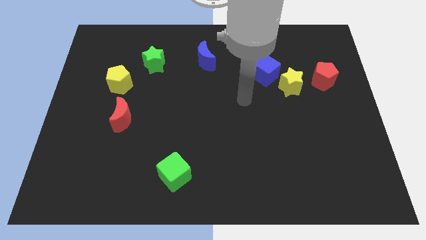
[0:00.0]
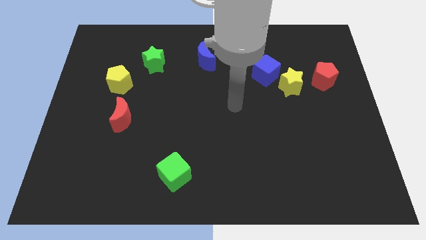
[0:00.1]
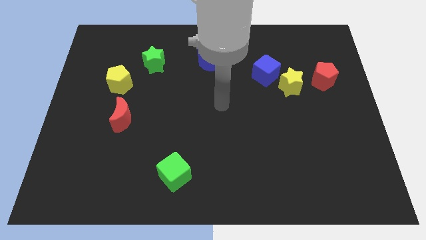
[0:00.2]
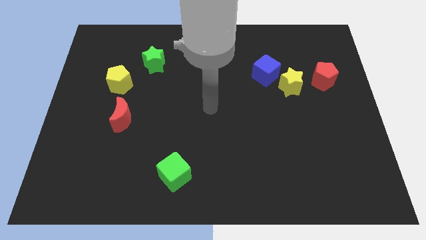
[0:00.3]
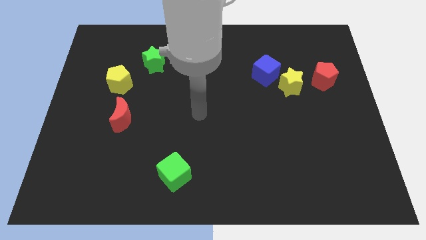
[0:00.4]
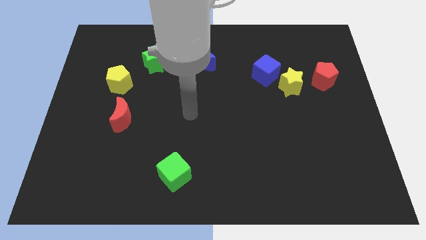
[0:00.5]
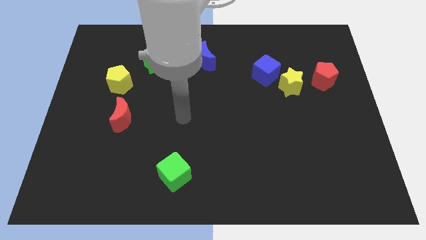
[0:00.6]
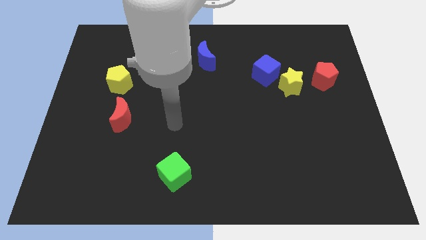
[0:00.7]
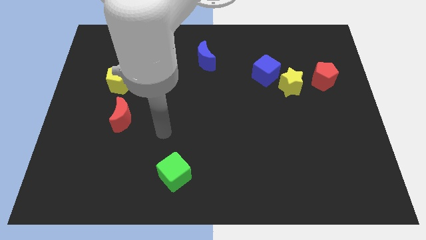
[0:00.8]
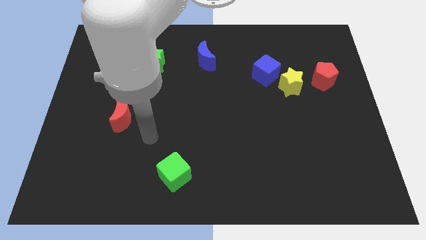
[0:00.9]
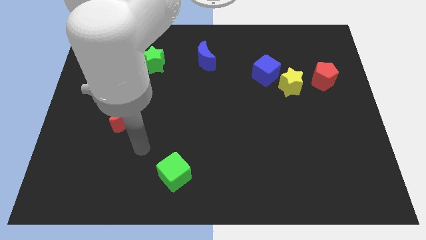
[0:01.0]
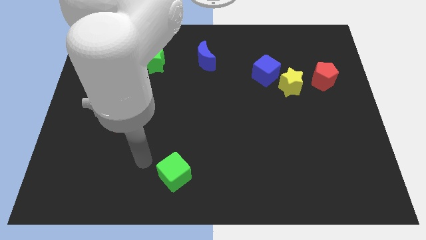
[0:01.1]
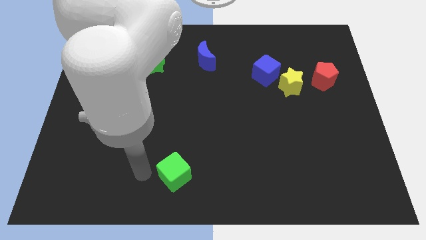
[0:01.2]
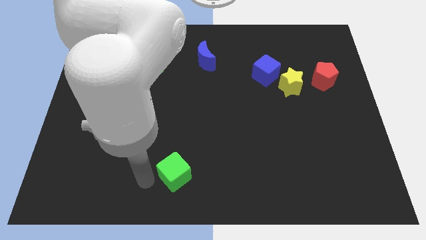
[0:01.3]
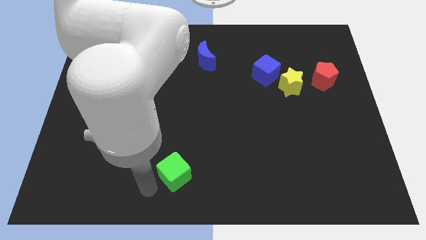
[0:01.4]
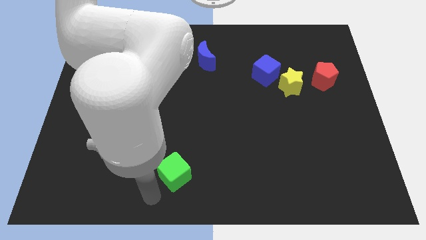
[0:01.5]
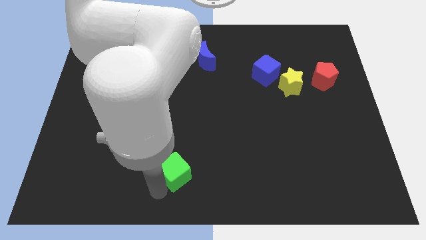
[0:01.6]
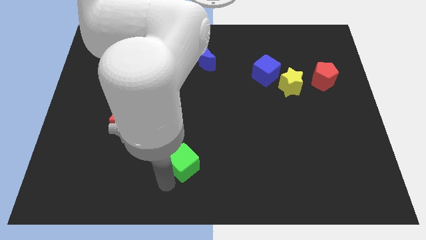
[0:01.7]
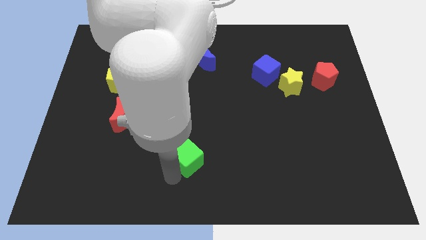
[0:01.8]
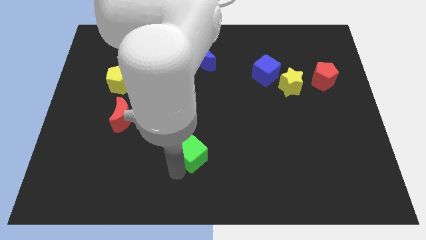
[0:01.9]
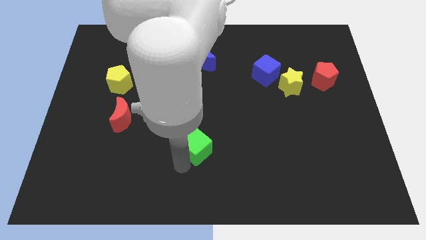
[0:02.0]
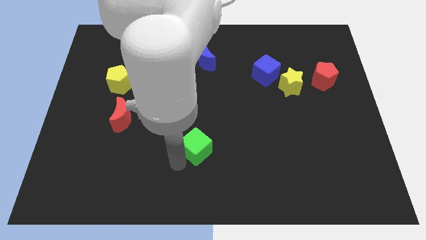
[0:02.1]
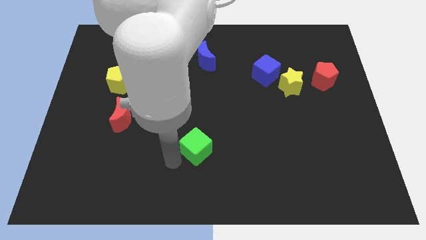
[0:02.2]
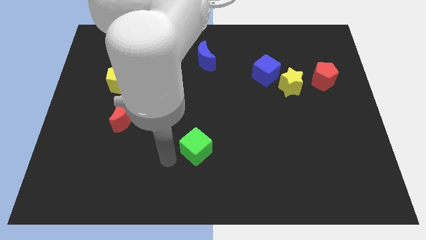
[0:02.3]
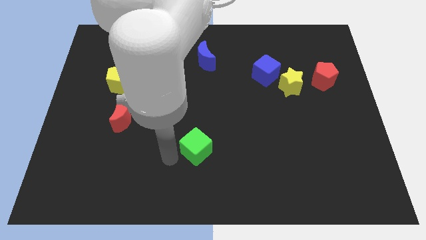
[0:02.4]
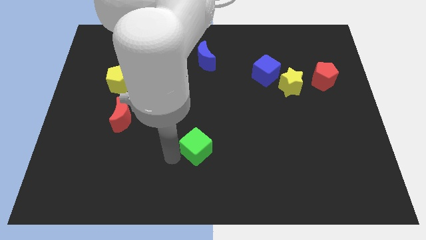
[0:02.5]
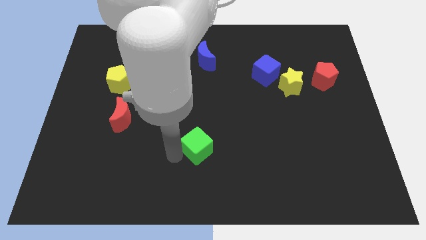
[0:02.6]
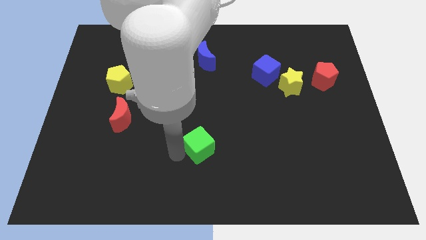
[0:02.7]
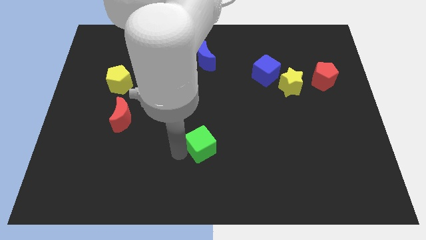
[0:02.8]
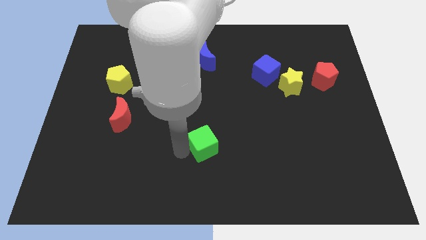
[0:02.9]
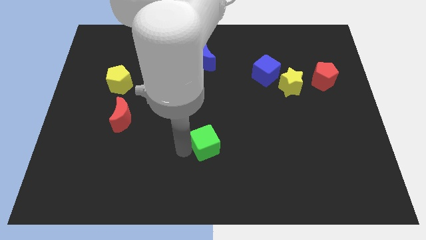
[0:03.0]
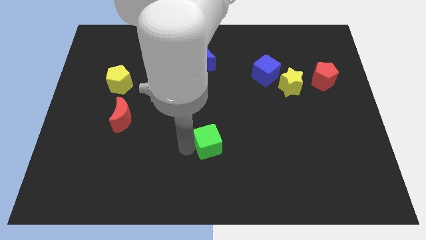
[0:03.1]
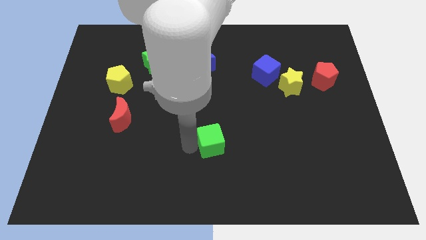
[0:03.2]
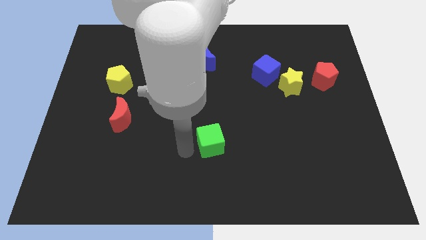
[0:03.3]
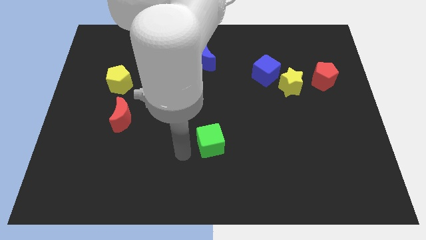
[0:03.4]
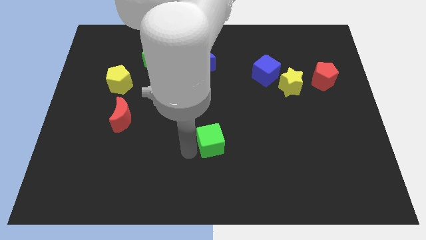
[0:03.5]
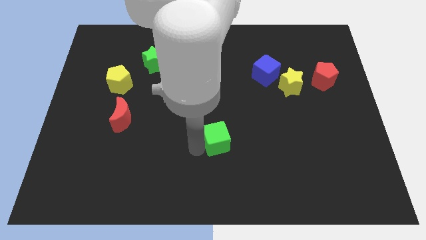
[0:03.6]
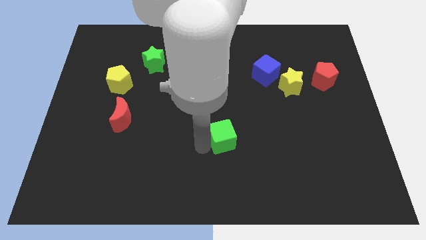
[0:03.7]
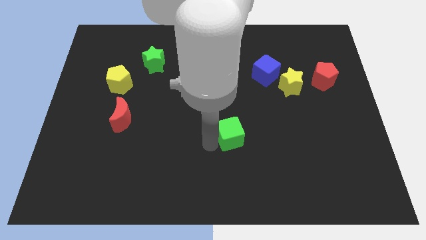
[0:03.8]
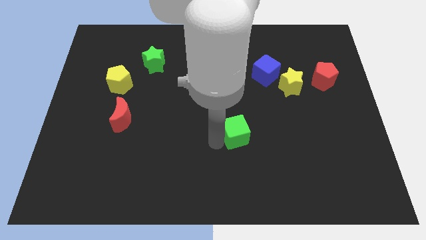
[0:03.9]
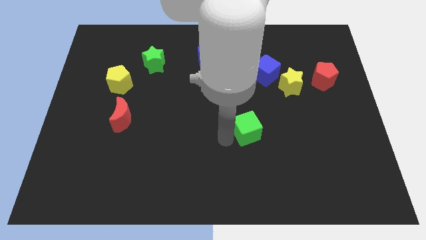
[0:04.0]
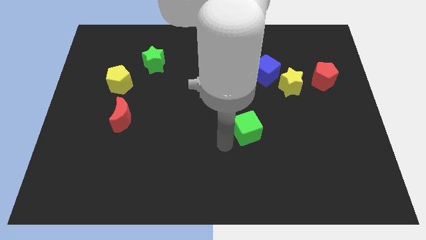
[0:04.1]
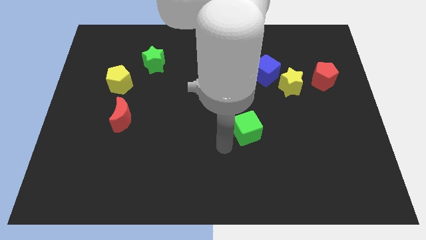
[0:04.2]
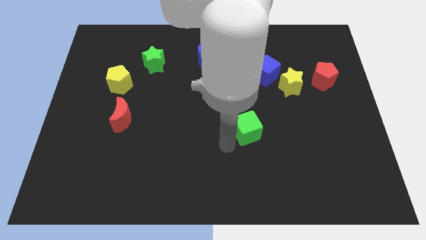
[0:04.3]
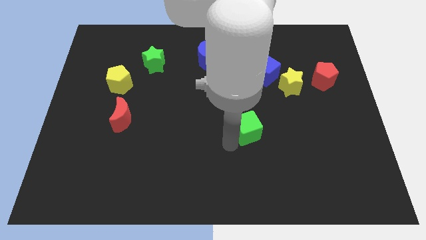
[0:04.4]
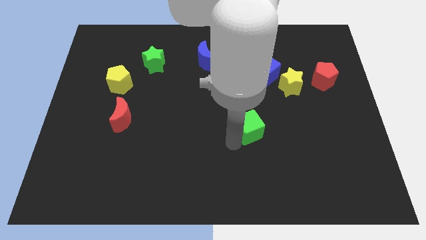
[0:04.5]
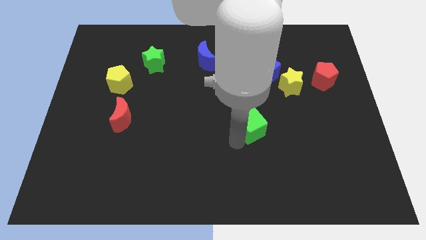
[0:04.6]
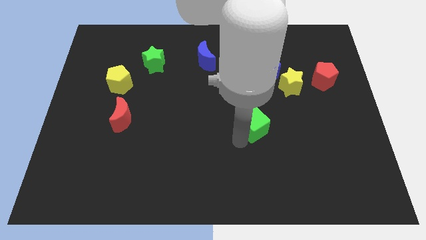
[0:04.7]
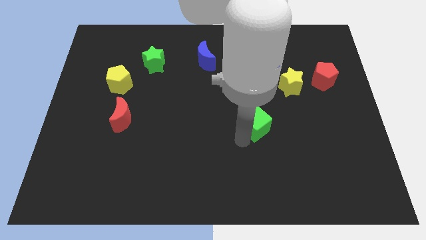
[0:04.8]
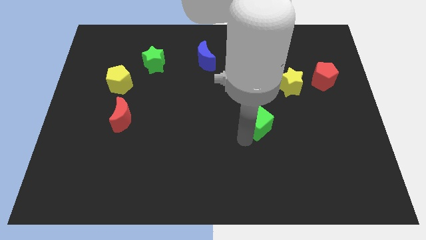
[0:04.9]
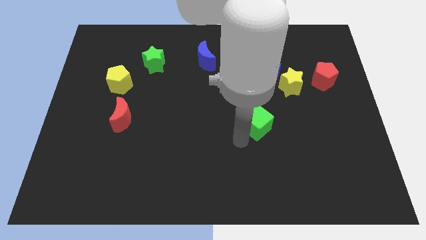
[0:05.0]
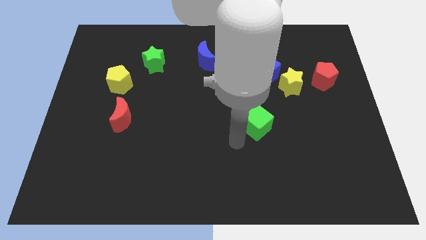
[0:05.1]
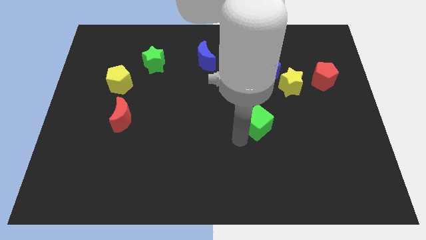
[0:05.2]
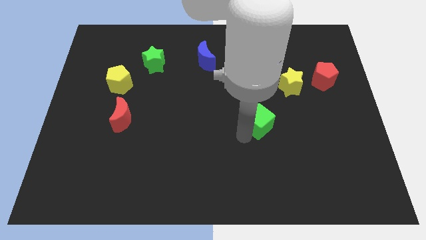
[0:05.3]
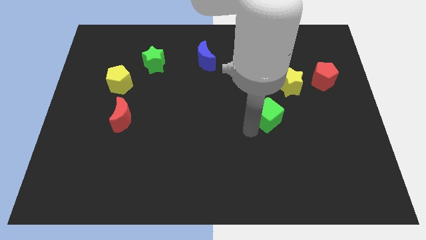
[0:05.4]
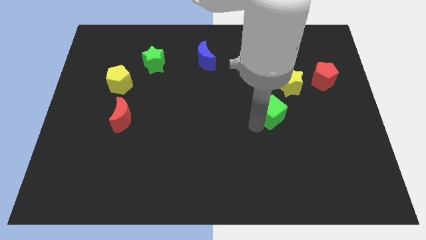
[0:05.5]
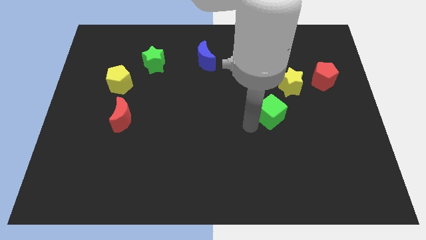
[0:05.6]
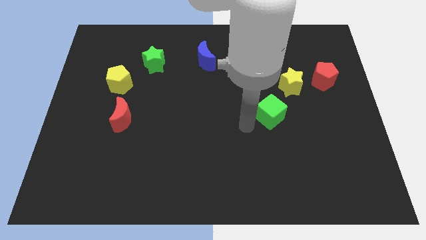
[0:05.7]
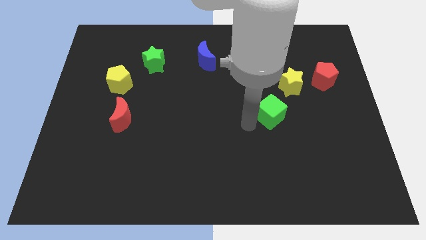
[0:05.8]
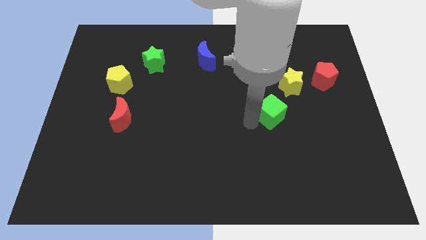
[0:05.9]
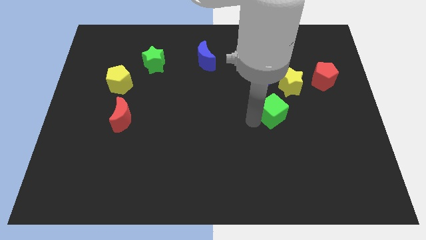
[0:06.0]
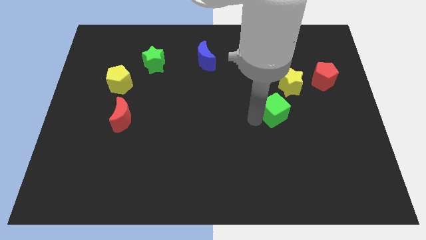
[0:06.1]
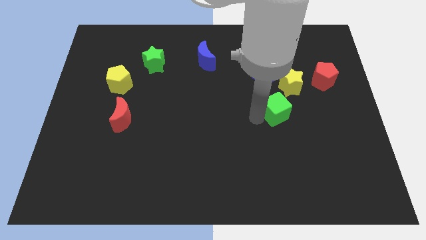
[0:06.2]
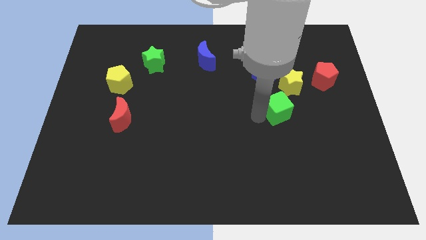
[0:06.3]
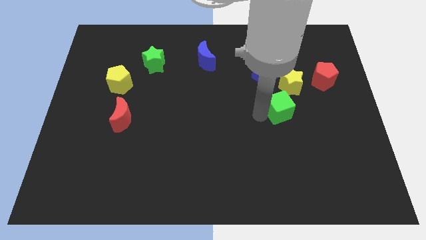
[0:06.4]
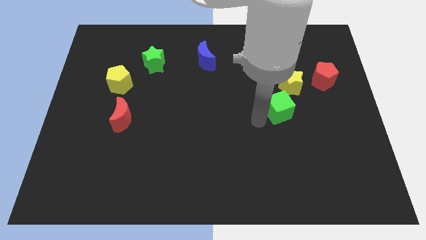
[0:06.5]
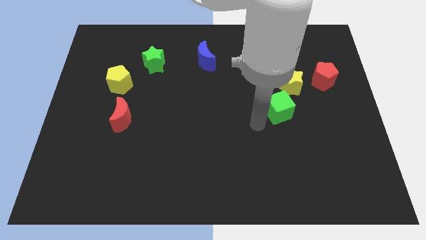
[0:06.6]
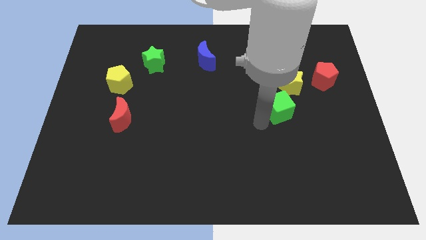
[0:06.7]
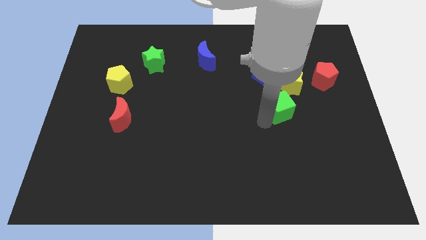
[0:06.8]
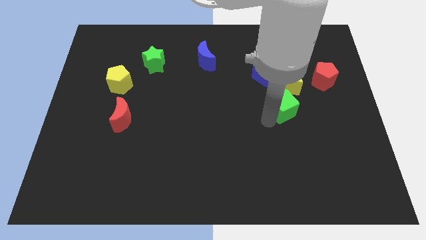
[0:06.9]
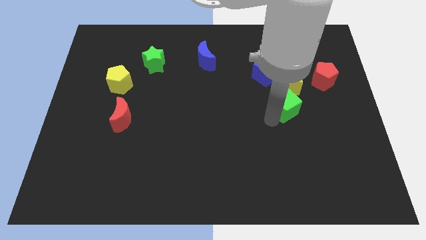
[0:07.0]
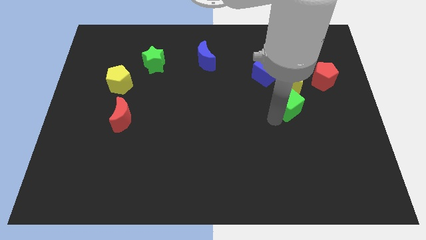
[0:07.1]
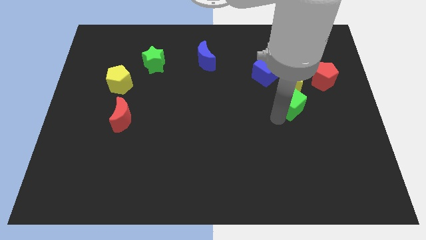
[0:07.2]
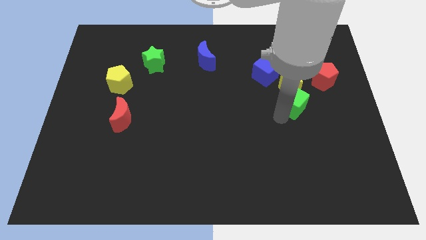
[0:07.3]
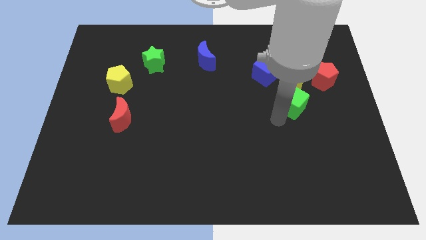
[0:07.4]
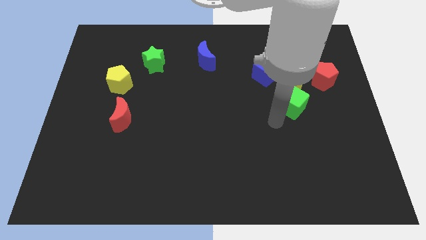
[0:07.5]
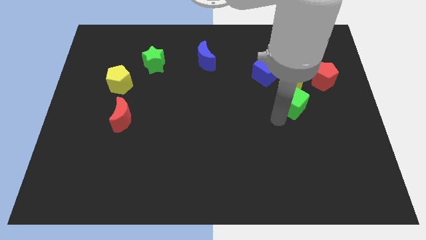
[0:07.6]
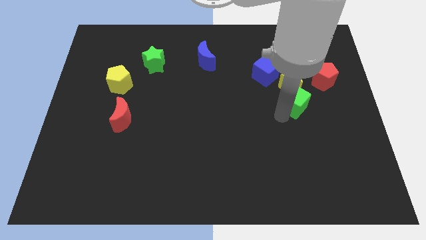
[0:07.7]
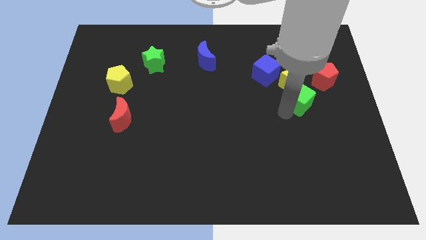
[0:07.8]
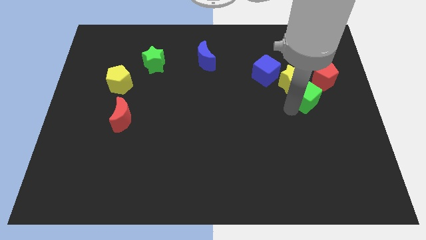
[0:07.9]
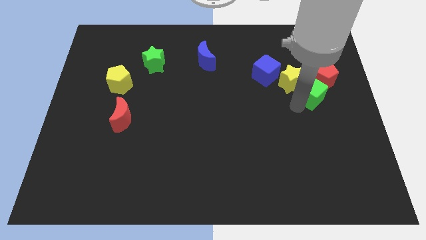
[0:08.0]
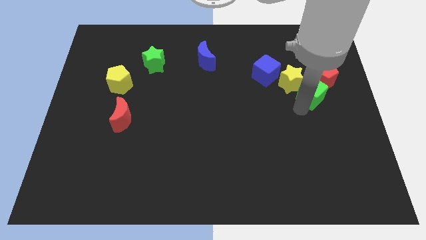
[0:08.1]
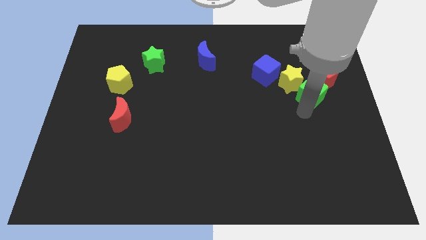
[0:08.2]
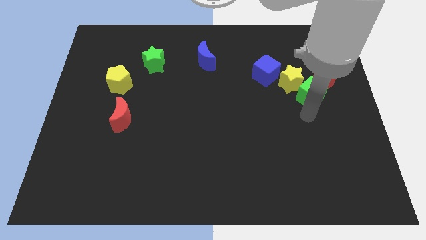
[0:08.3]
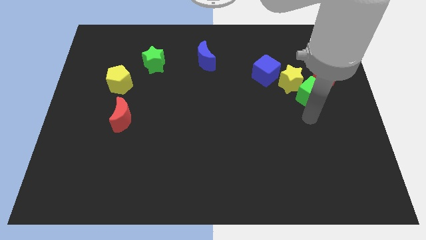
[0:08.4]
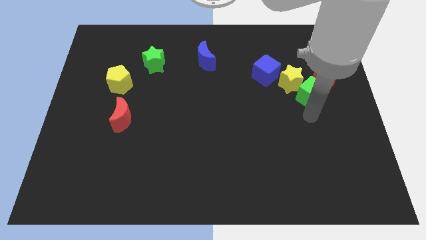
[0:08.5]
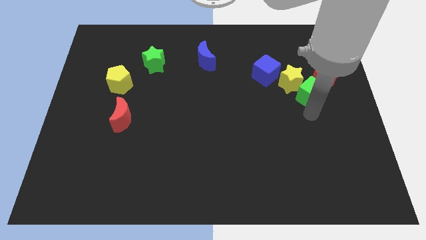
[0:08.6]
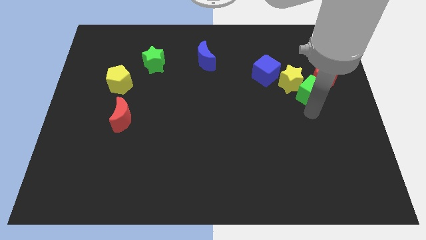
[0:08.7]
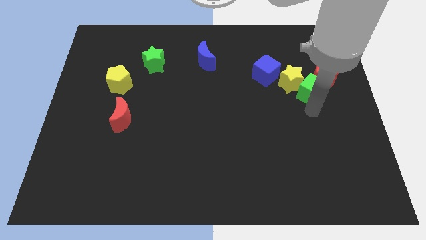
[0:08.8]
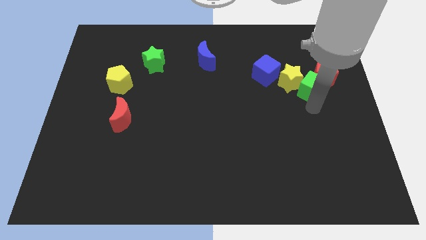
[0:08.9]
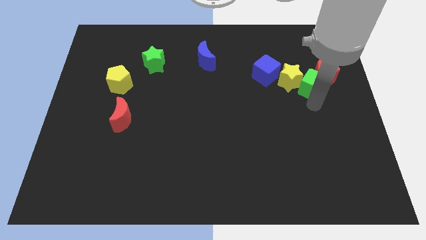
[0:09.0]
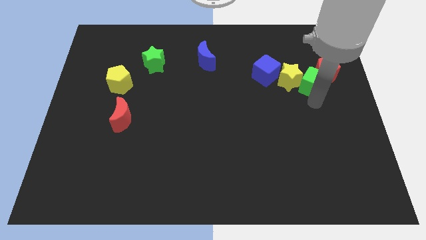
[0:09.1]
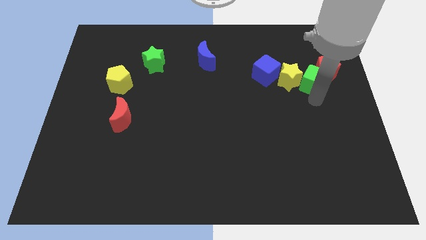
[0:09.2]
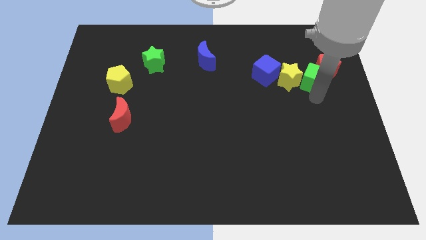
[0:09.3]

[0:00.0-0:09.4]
push the green cube to the top right of the yellow star
